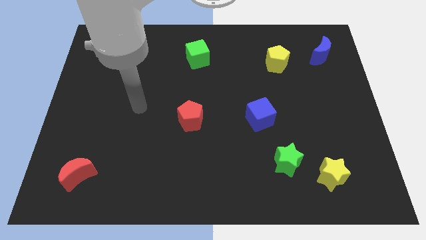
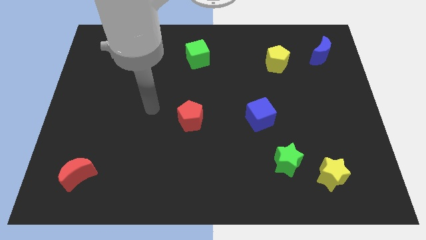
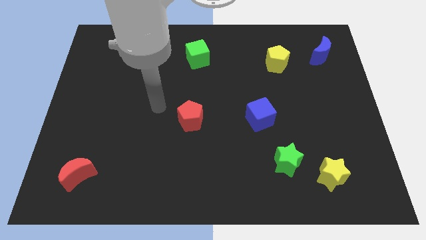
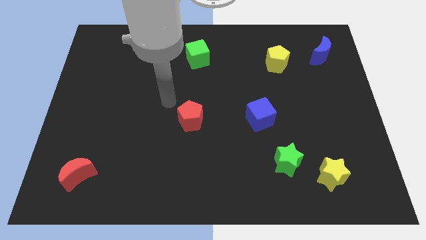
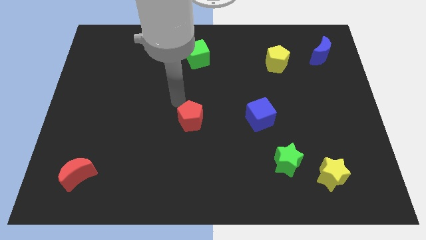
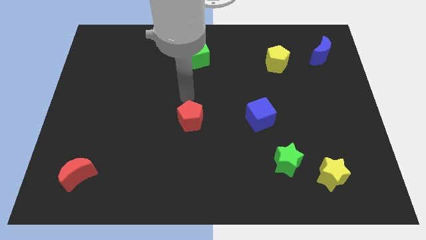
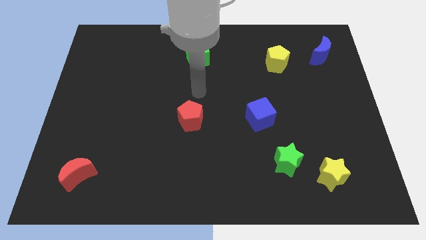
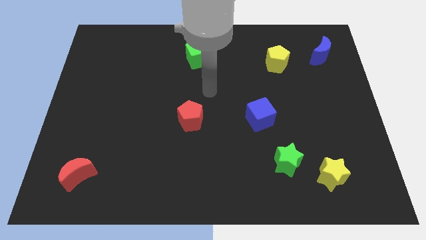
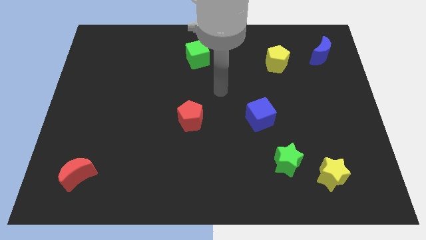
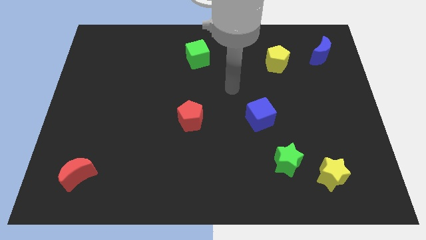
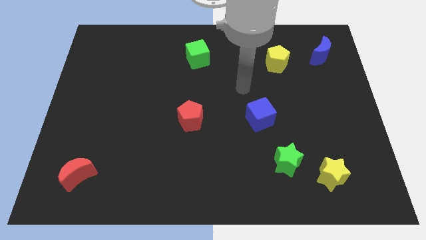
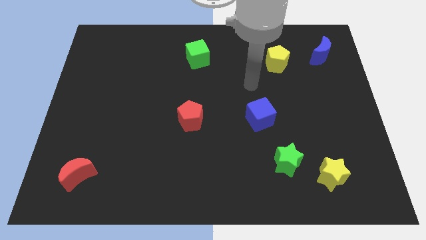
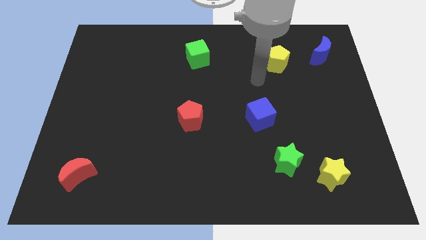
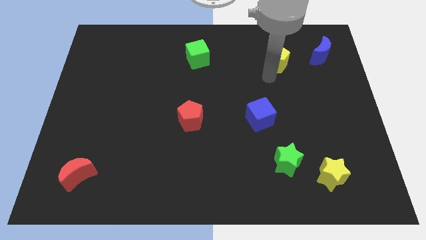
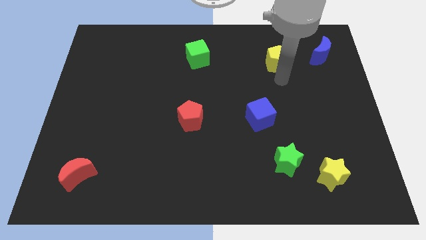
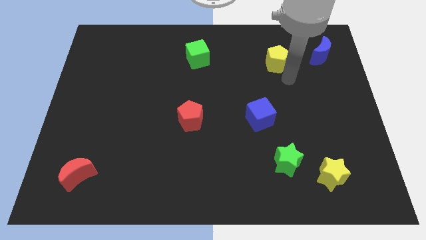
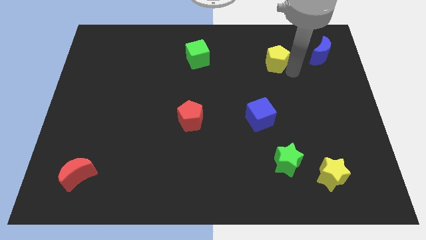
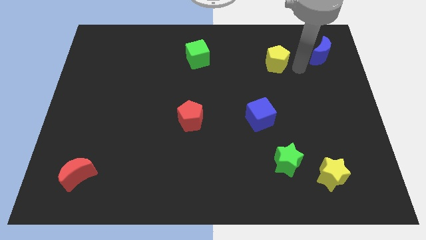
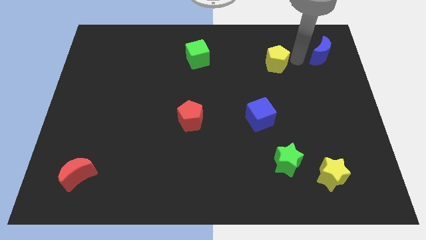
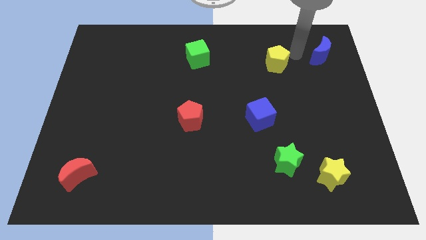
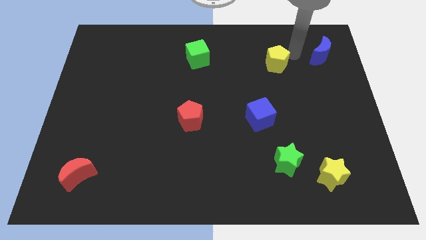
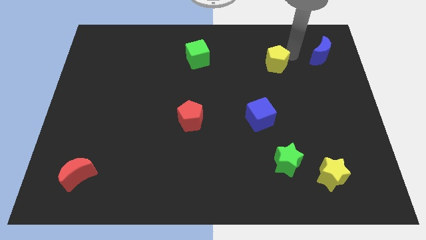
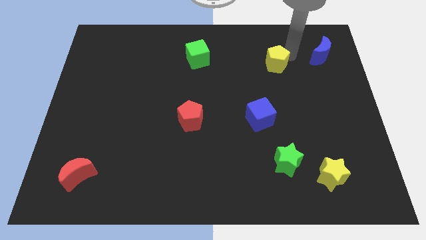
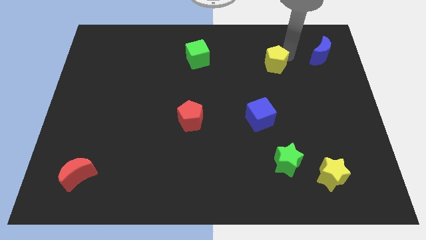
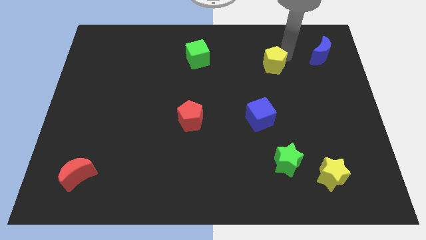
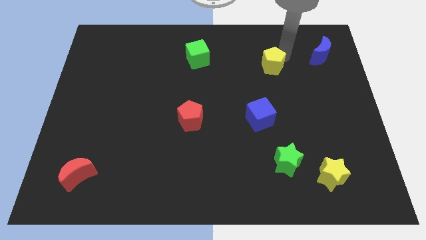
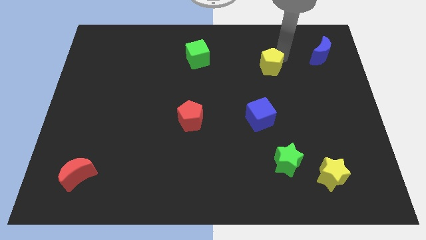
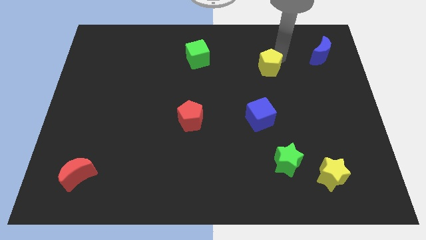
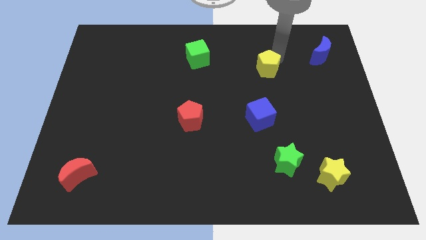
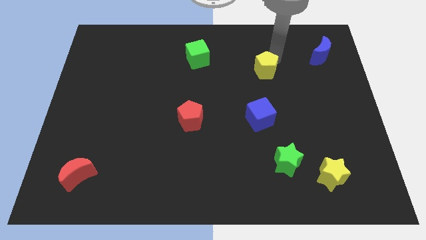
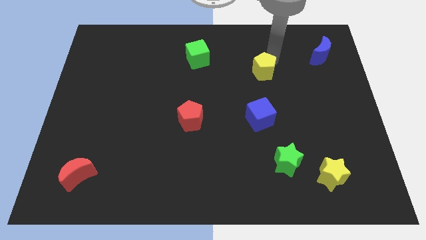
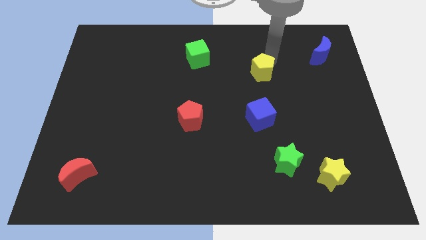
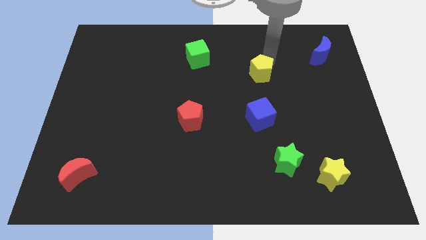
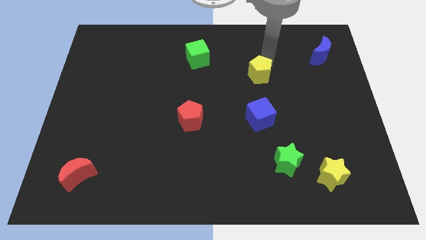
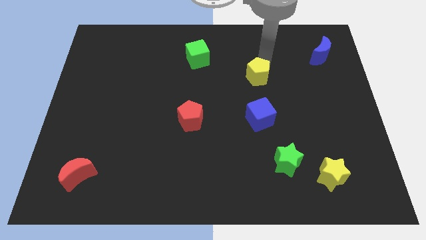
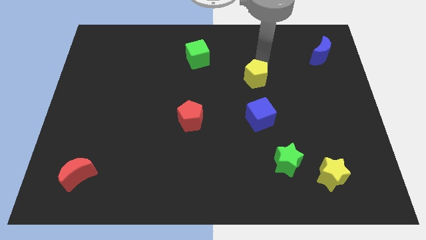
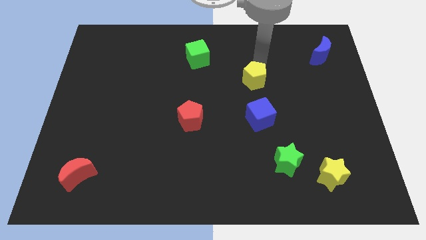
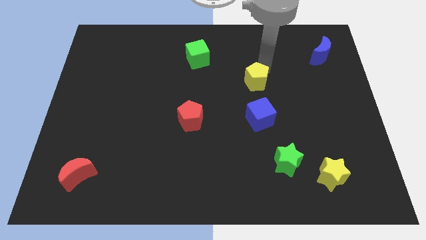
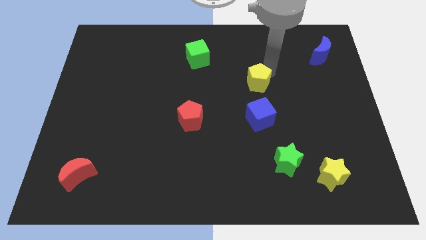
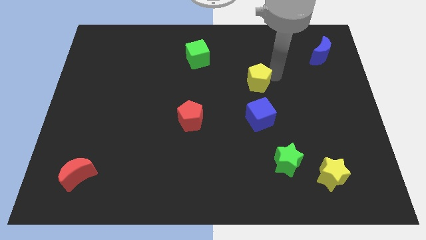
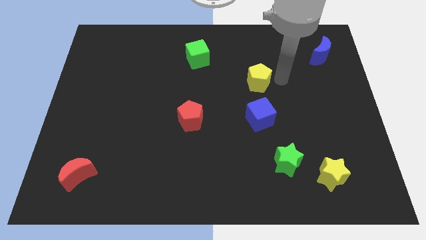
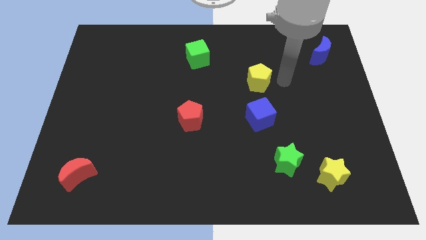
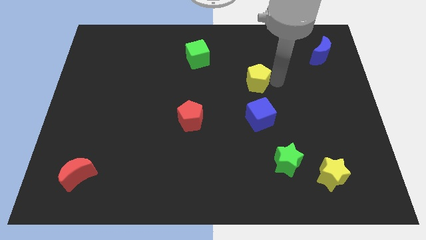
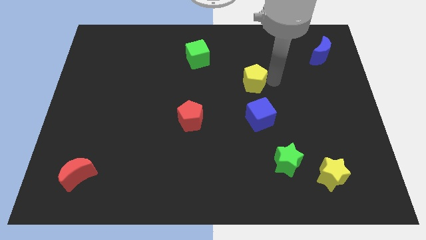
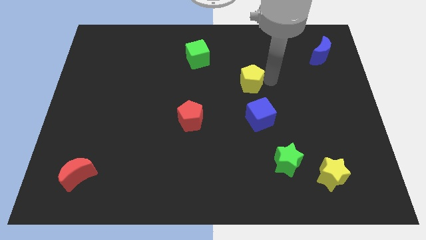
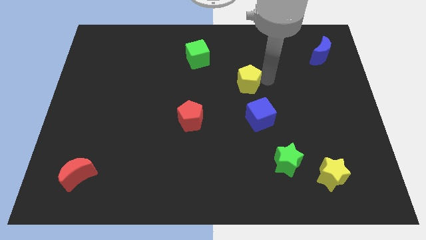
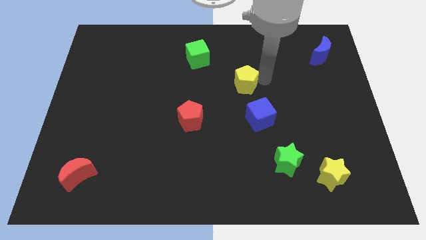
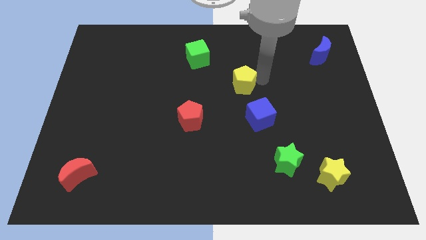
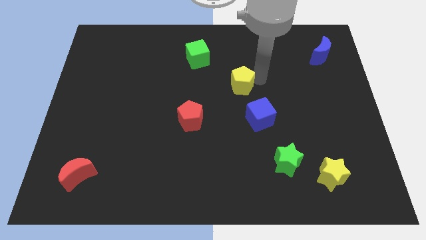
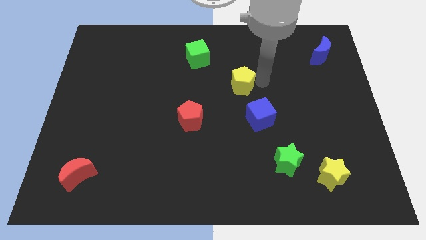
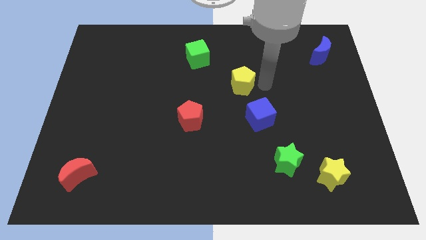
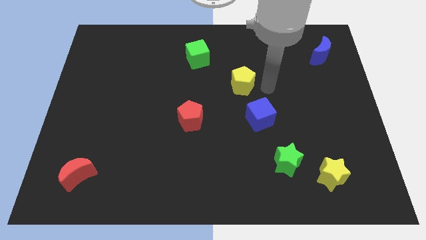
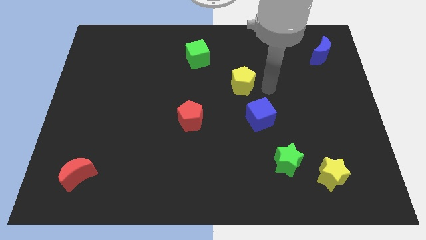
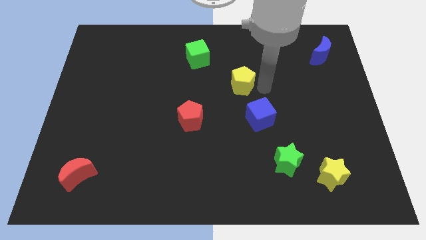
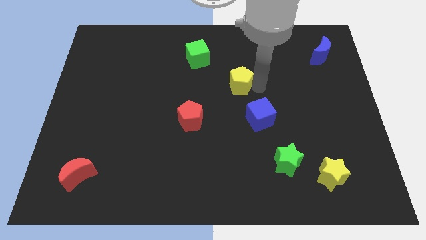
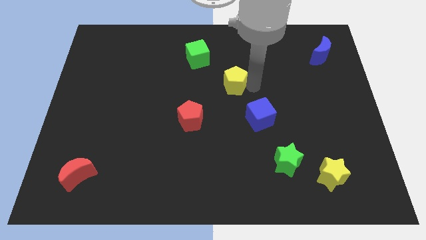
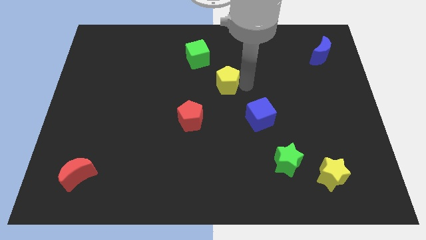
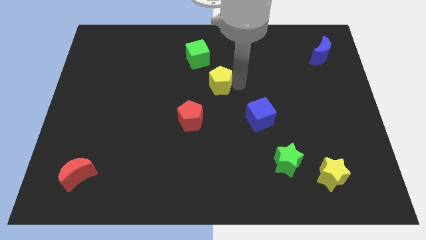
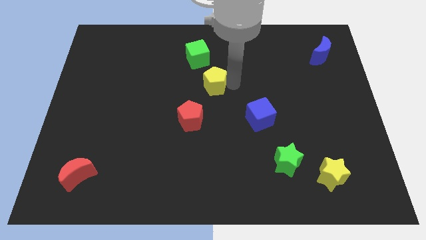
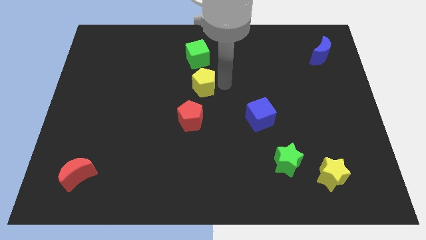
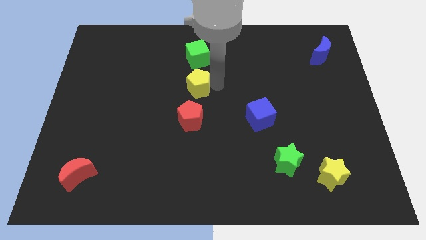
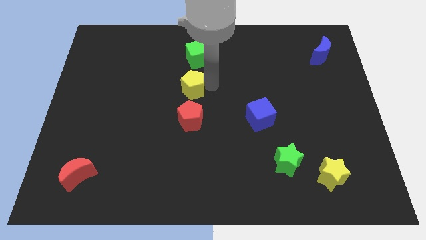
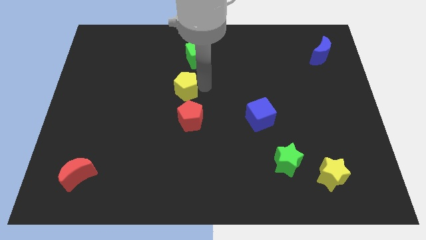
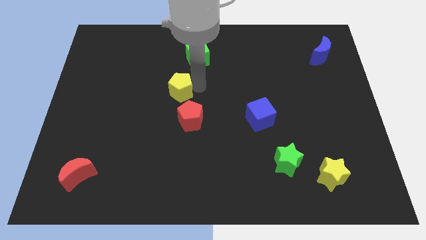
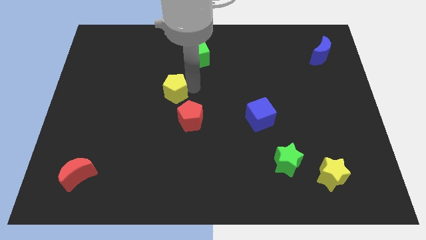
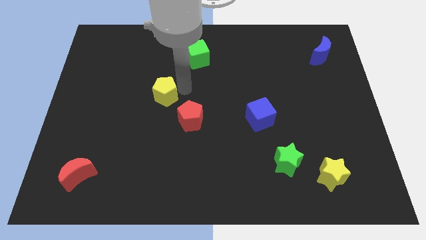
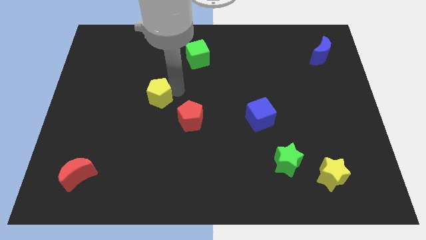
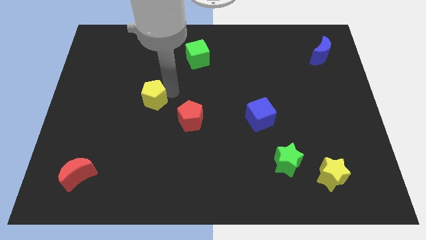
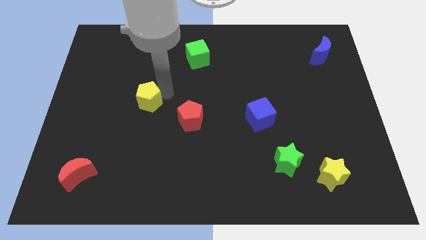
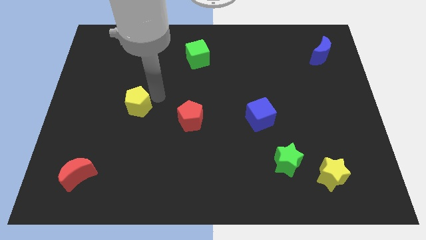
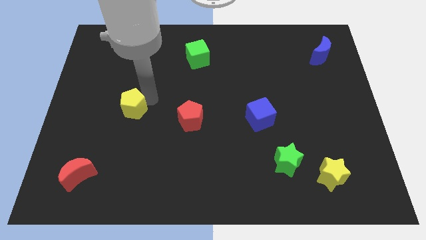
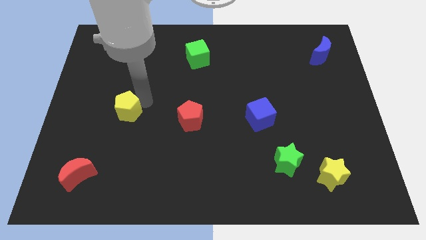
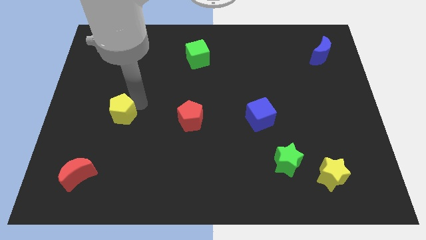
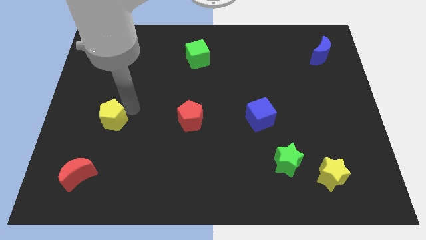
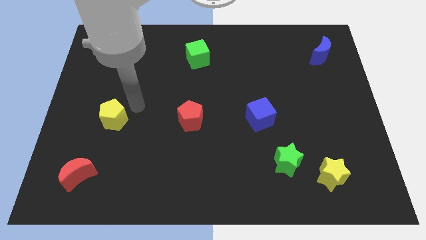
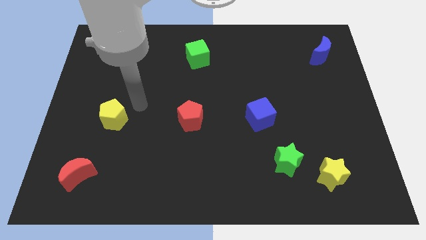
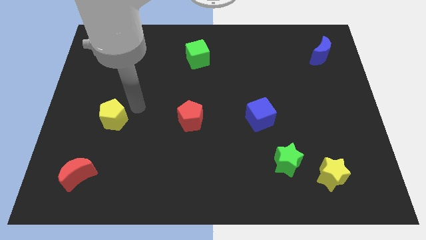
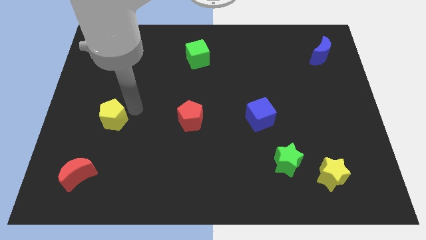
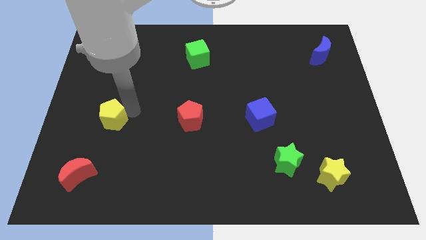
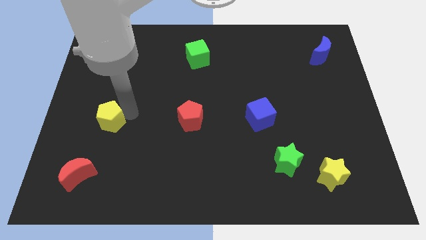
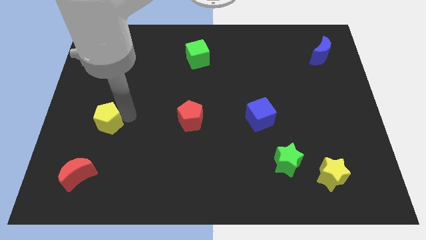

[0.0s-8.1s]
put the yellow pentagon to the top side of the red moon
